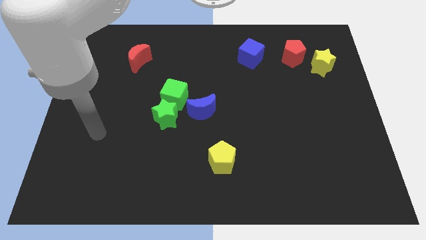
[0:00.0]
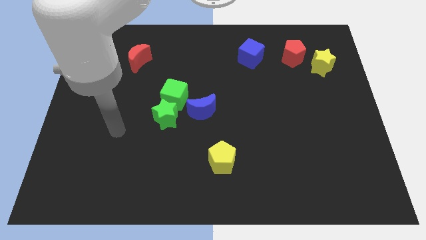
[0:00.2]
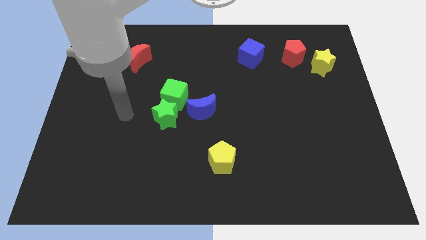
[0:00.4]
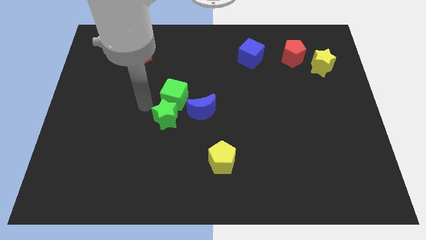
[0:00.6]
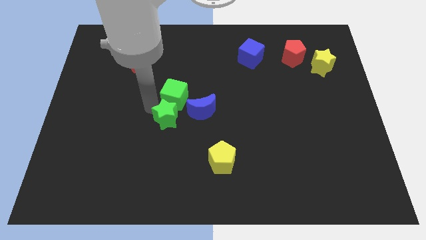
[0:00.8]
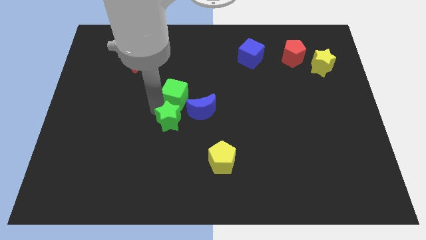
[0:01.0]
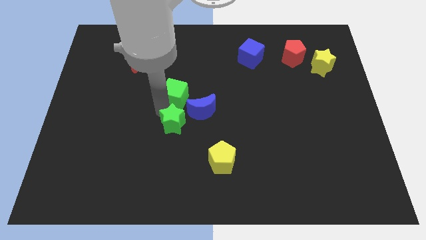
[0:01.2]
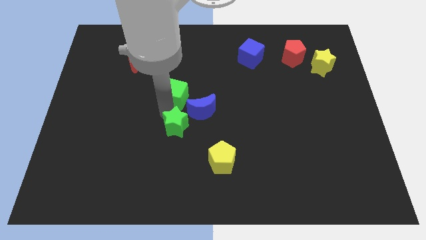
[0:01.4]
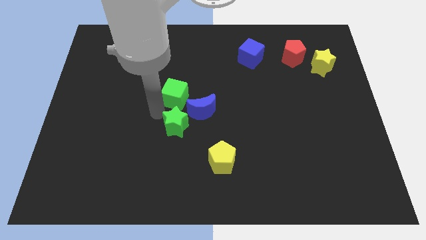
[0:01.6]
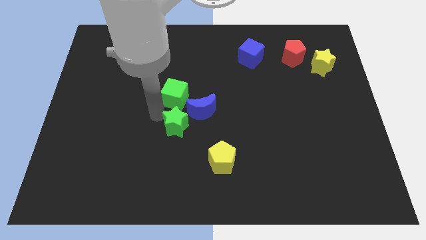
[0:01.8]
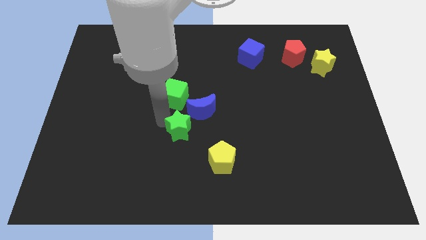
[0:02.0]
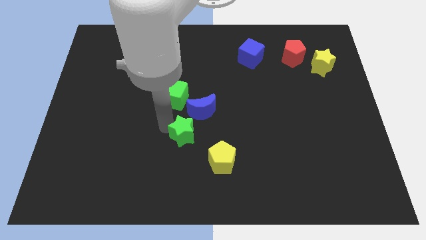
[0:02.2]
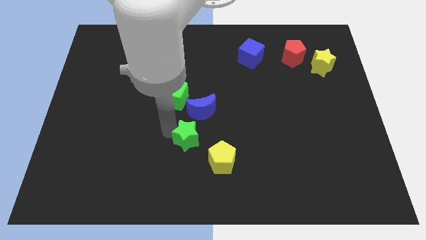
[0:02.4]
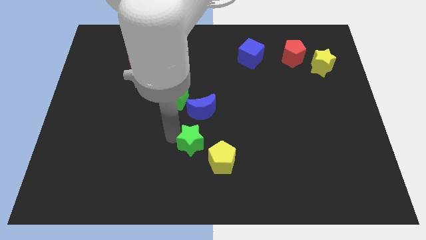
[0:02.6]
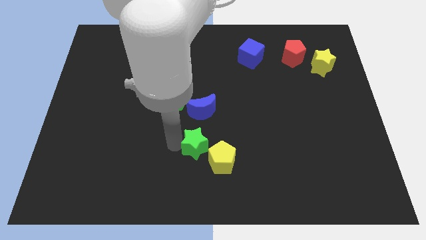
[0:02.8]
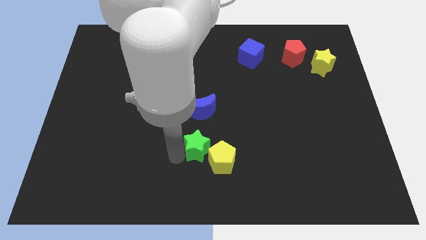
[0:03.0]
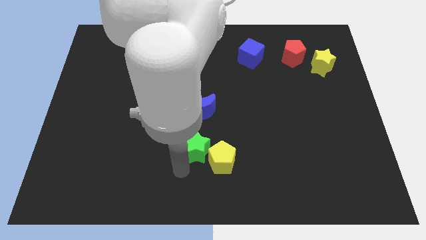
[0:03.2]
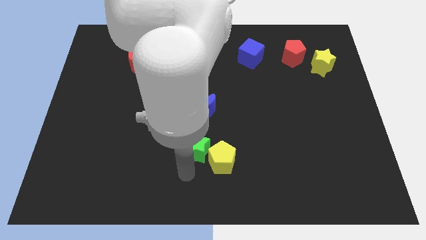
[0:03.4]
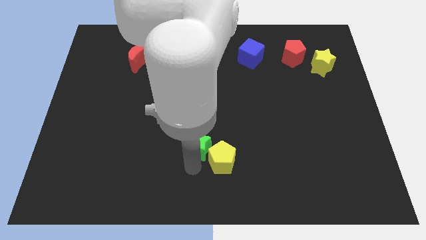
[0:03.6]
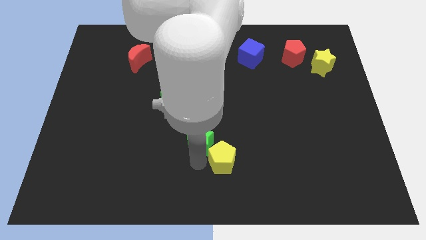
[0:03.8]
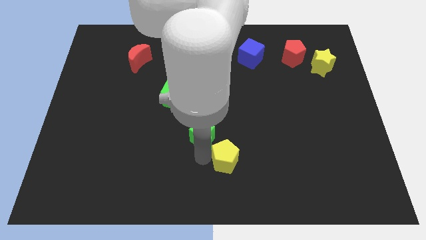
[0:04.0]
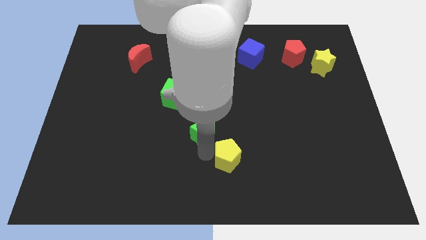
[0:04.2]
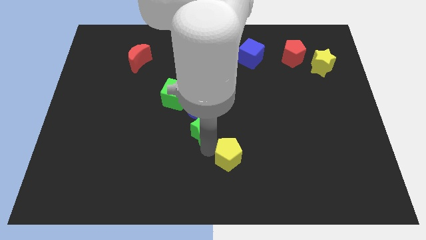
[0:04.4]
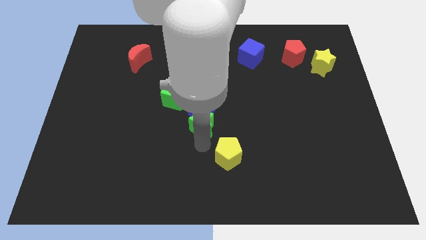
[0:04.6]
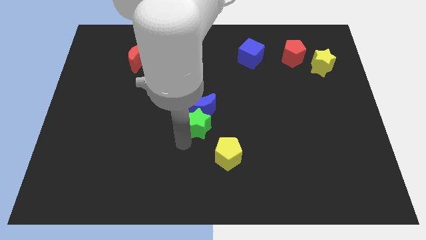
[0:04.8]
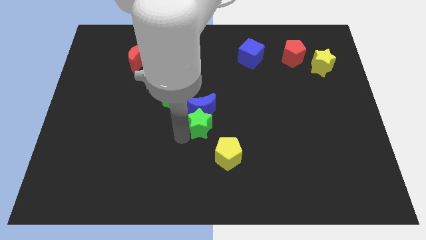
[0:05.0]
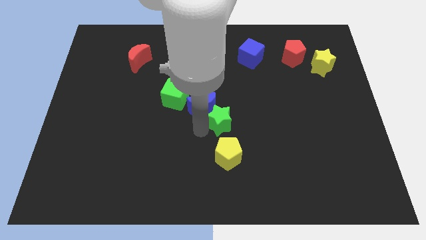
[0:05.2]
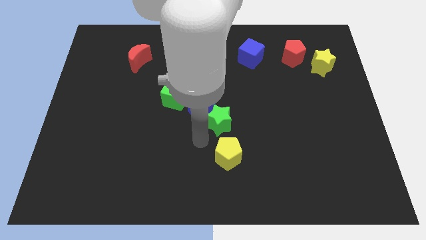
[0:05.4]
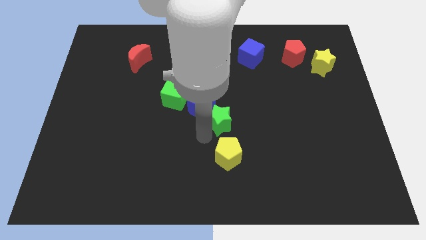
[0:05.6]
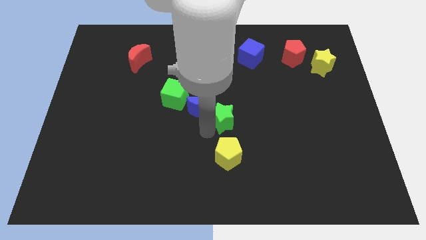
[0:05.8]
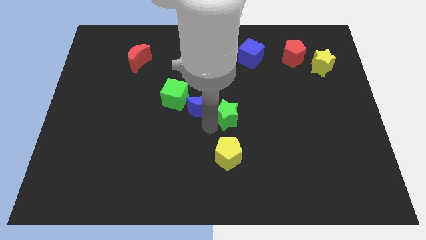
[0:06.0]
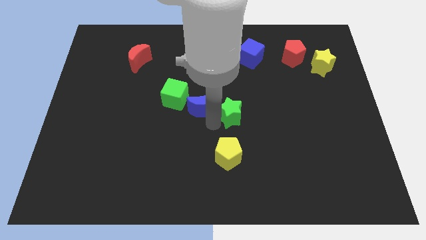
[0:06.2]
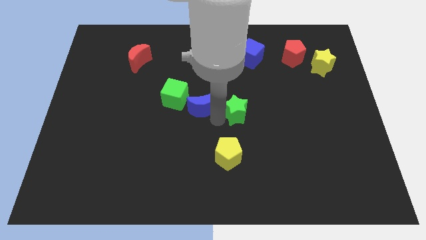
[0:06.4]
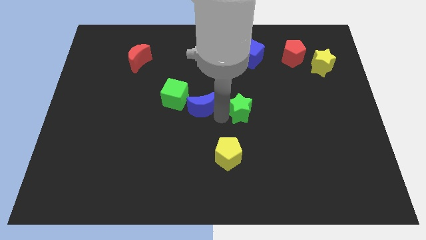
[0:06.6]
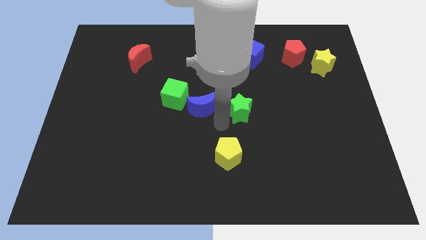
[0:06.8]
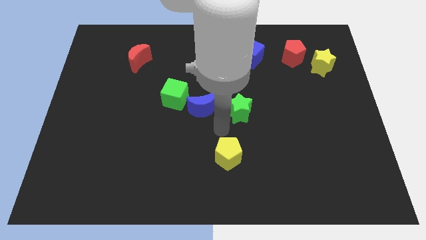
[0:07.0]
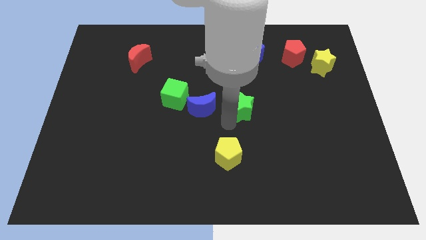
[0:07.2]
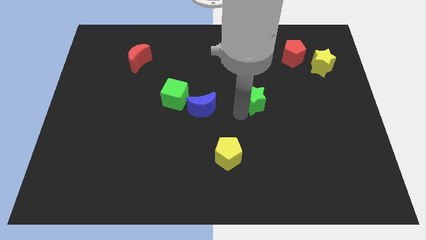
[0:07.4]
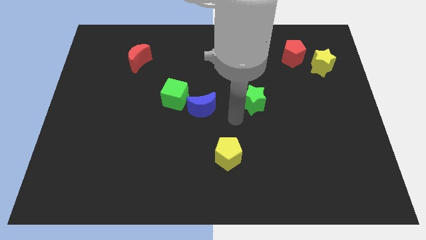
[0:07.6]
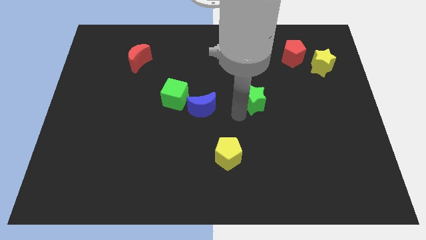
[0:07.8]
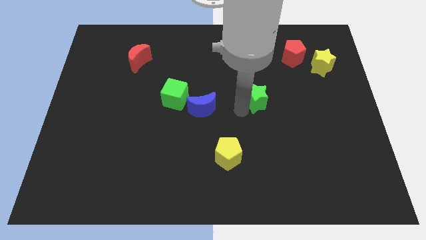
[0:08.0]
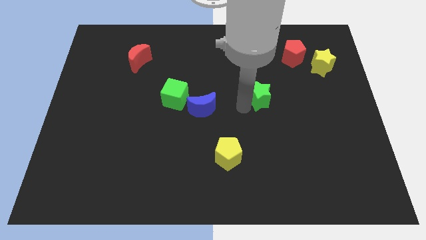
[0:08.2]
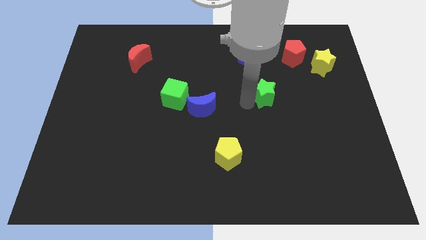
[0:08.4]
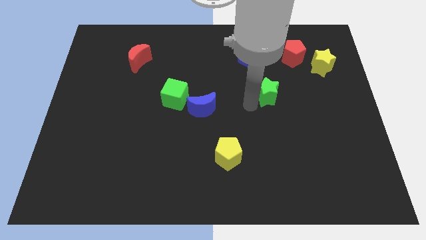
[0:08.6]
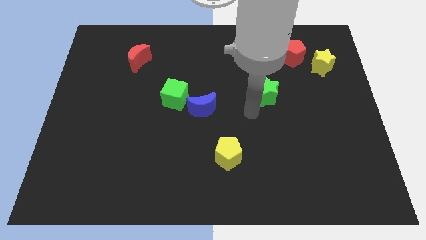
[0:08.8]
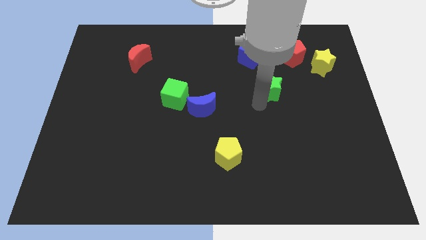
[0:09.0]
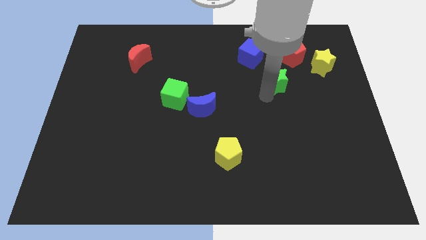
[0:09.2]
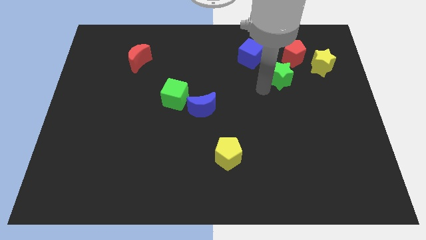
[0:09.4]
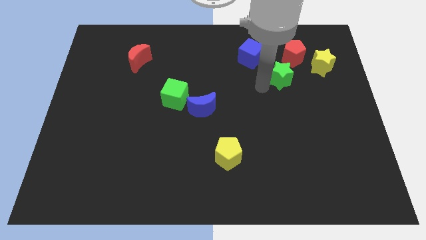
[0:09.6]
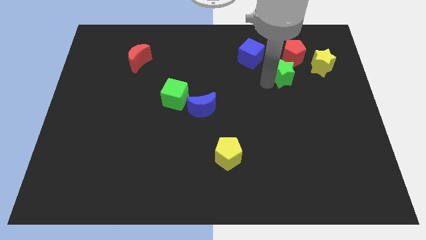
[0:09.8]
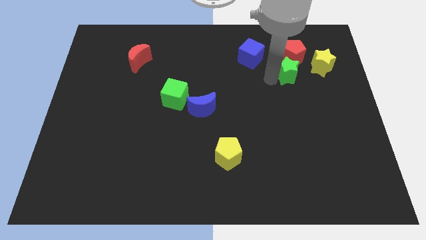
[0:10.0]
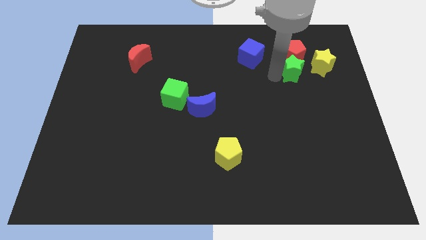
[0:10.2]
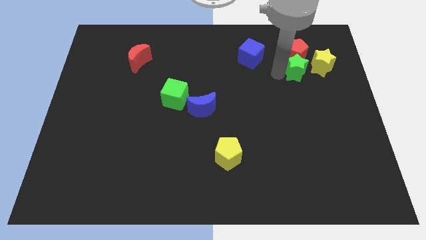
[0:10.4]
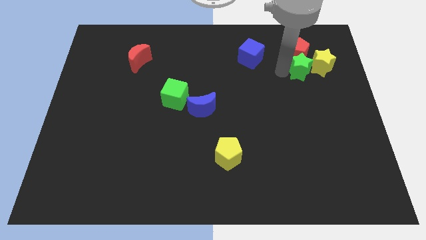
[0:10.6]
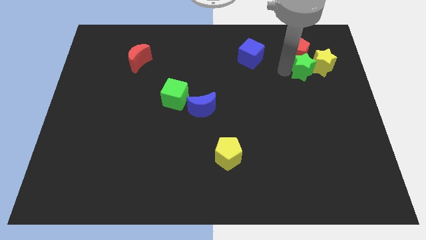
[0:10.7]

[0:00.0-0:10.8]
move the green star next to the yellow star

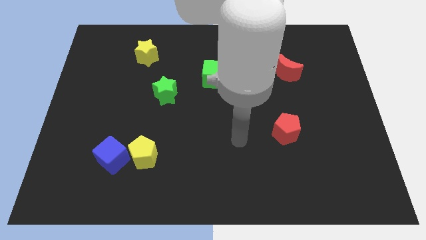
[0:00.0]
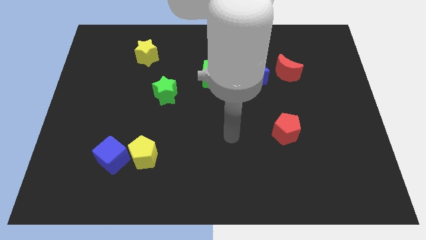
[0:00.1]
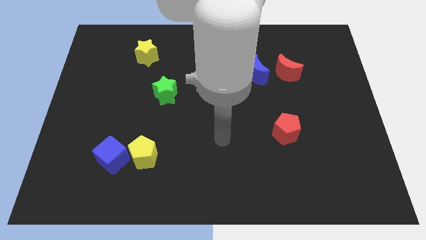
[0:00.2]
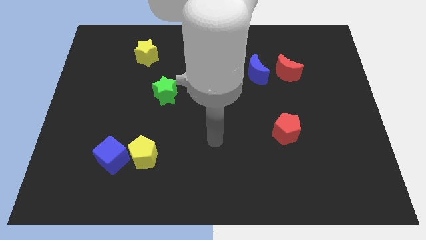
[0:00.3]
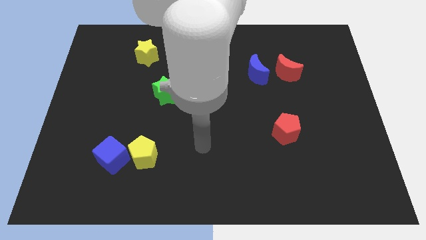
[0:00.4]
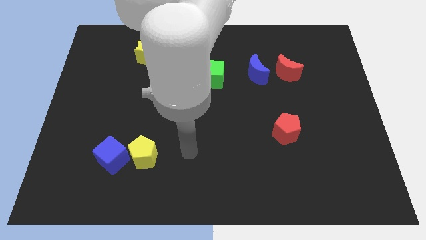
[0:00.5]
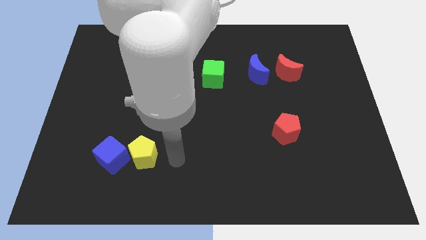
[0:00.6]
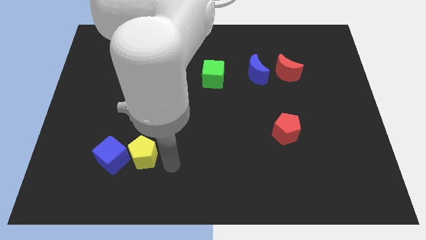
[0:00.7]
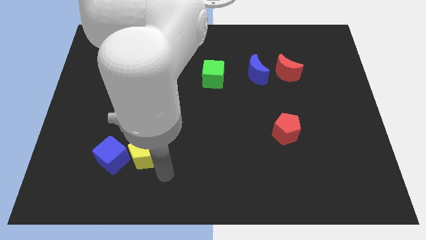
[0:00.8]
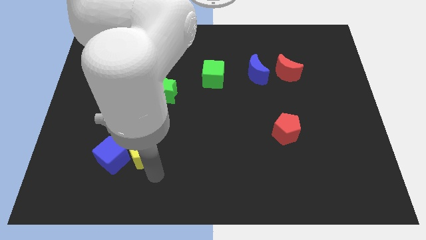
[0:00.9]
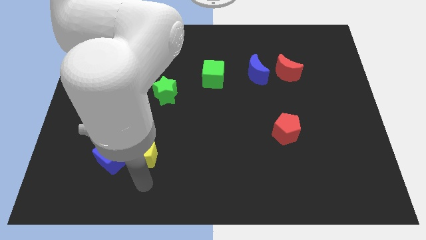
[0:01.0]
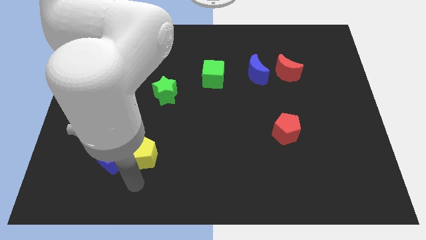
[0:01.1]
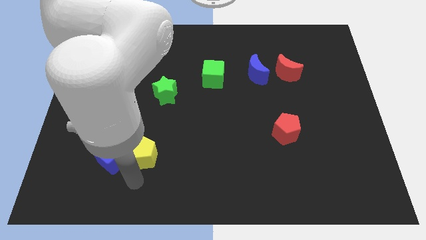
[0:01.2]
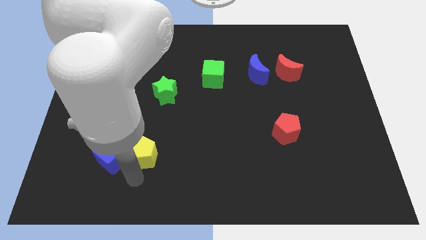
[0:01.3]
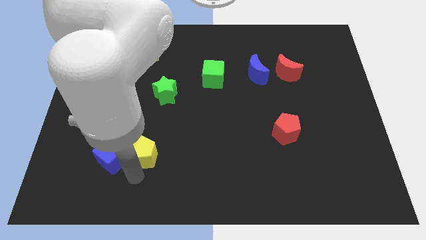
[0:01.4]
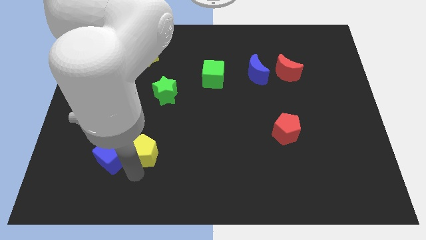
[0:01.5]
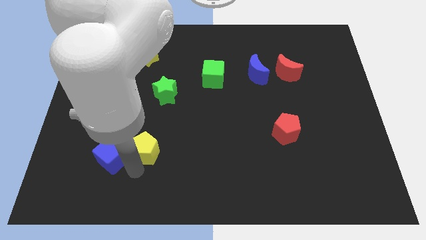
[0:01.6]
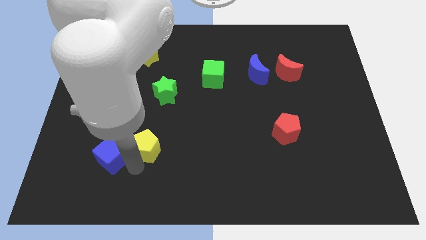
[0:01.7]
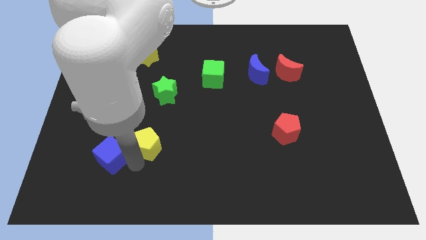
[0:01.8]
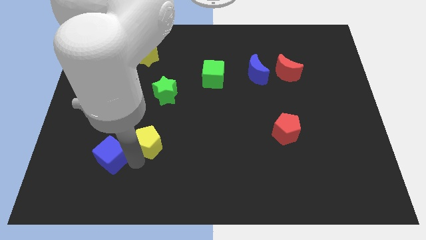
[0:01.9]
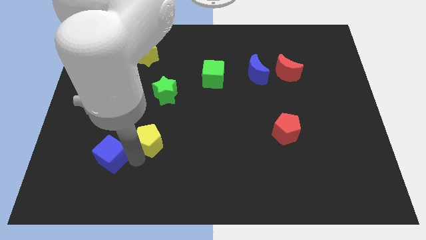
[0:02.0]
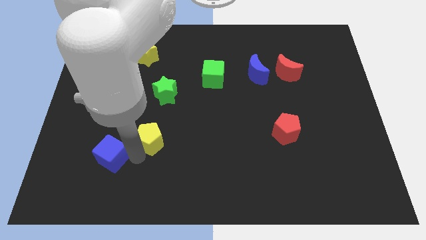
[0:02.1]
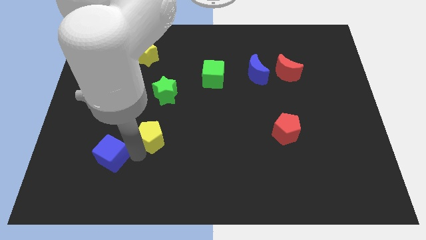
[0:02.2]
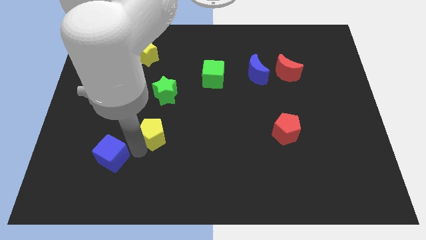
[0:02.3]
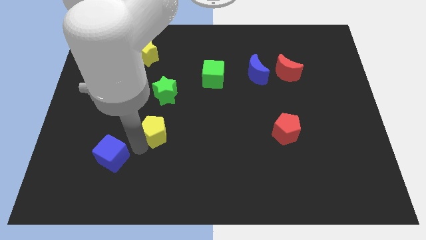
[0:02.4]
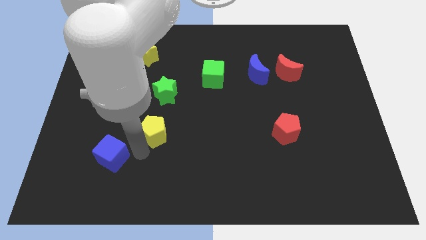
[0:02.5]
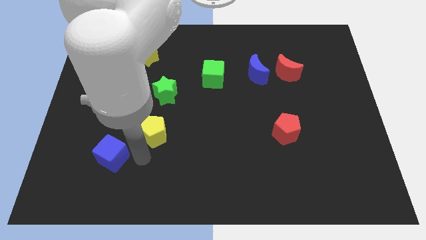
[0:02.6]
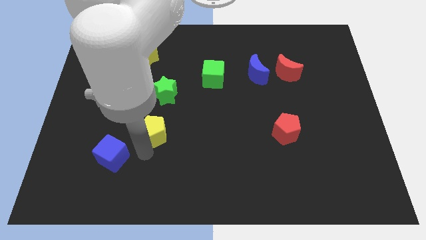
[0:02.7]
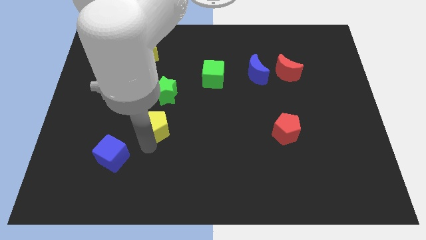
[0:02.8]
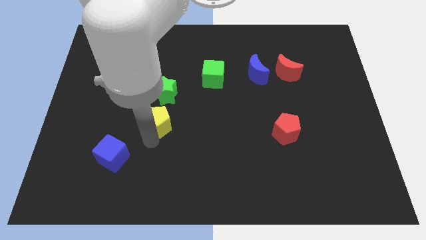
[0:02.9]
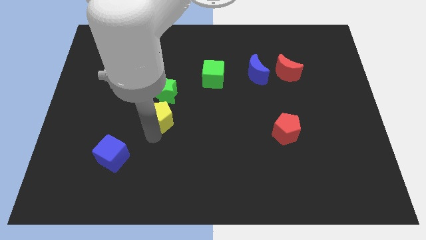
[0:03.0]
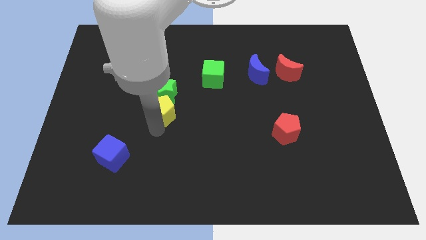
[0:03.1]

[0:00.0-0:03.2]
move the yellow pentagon to the green star
